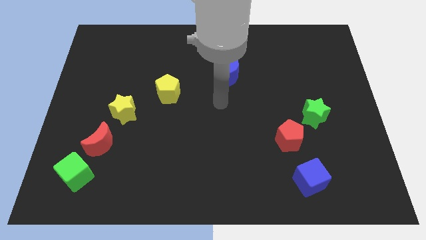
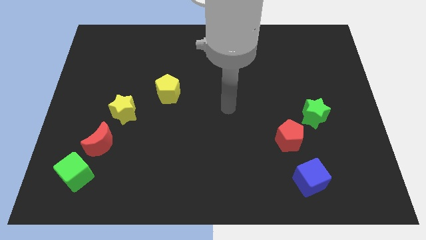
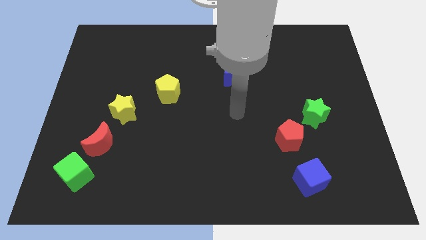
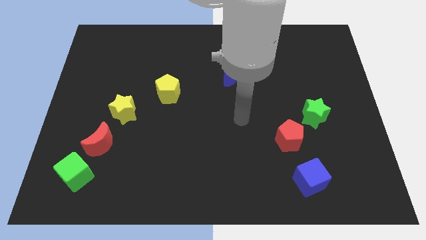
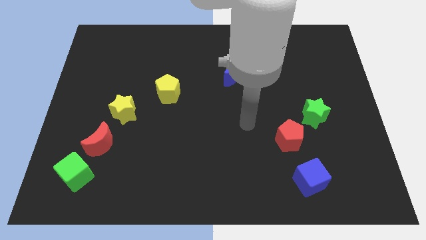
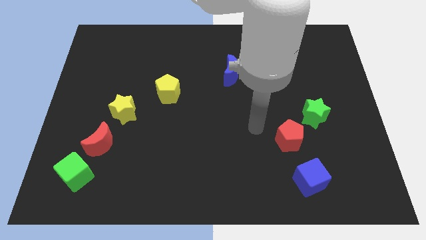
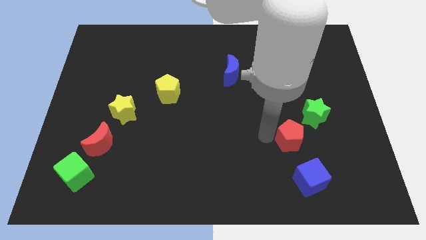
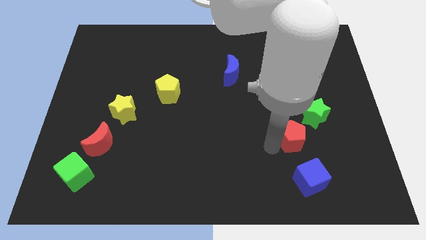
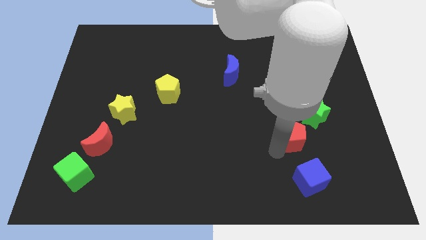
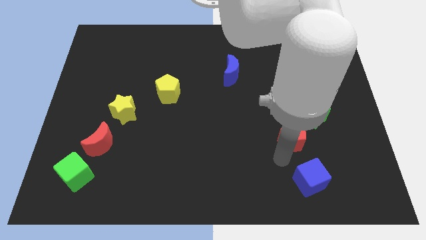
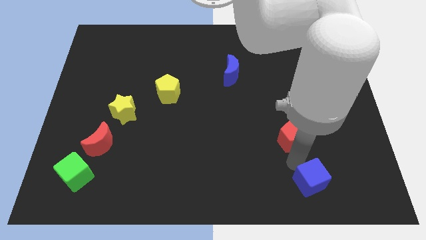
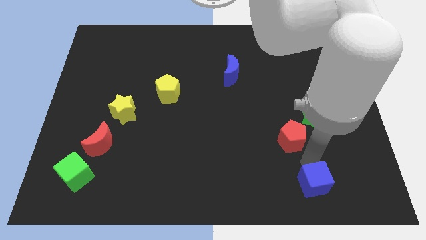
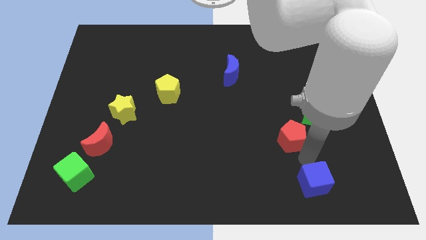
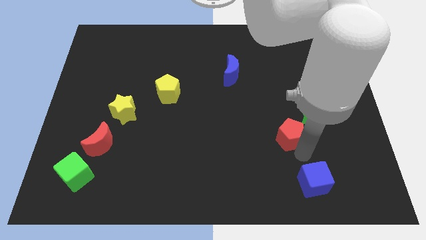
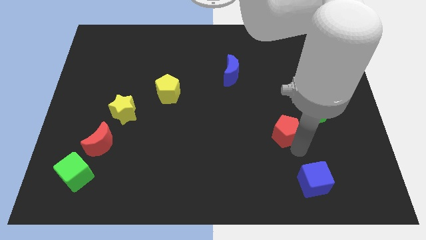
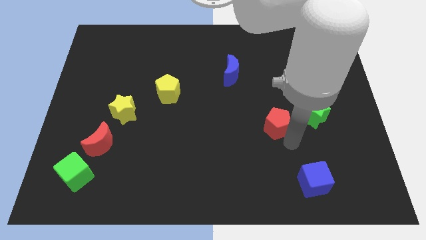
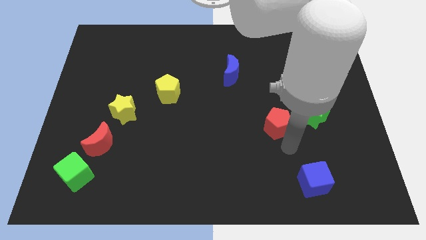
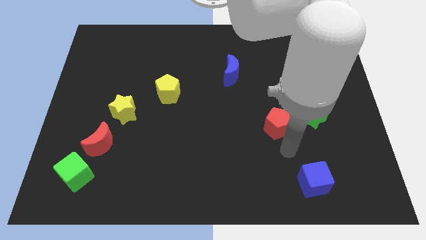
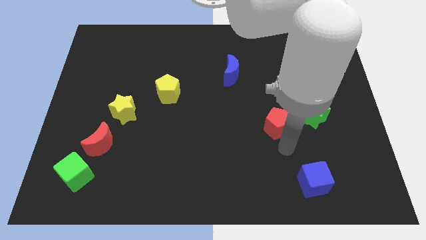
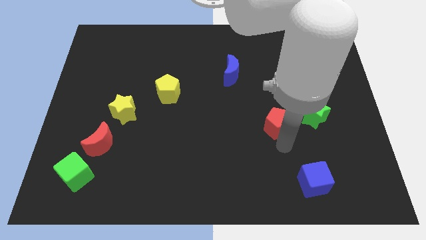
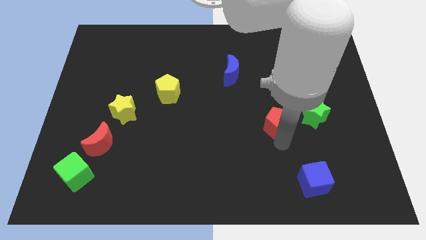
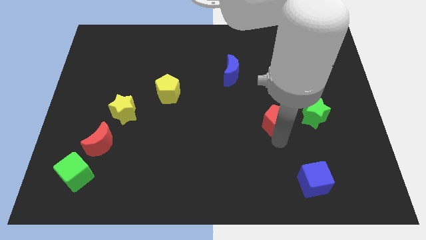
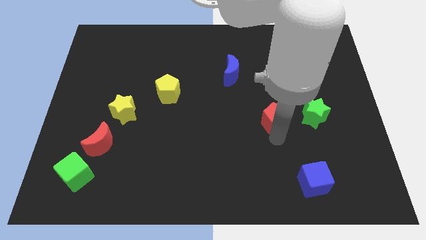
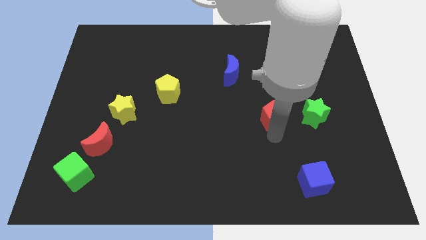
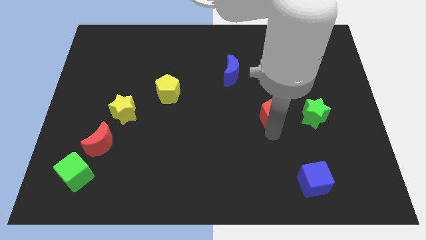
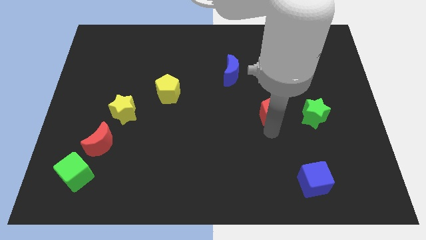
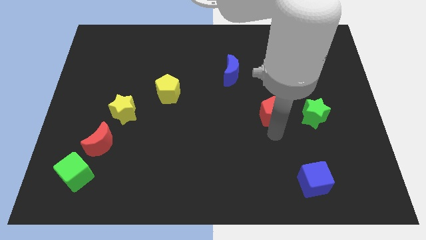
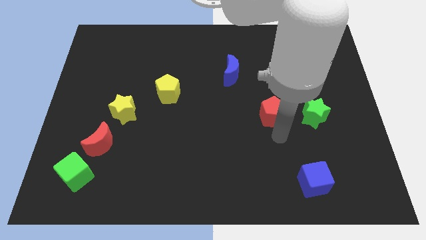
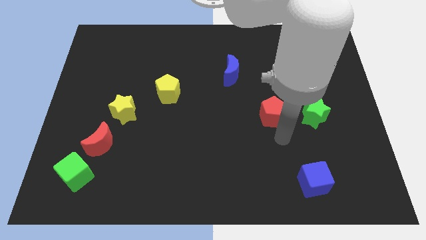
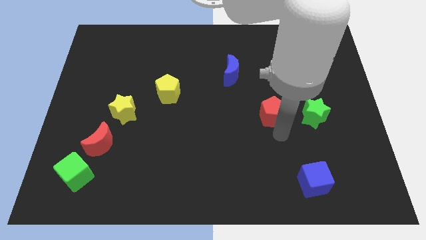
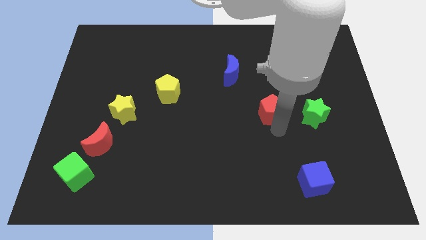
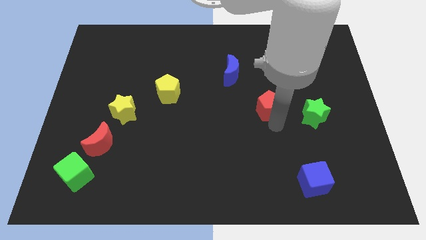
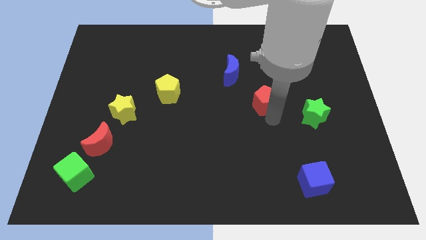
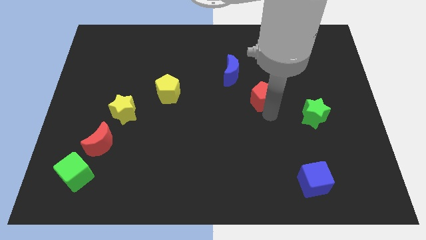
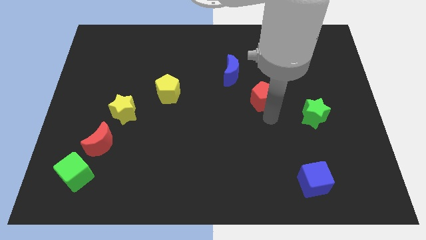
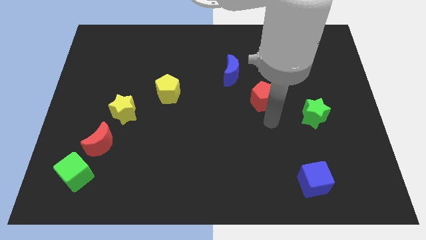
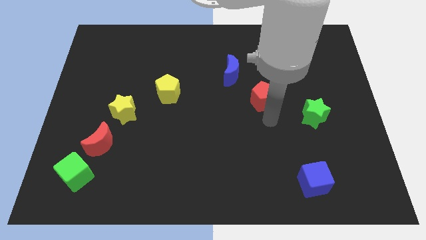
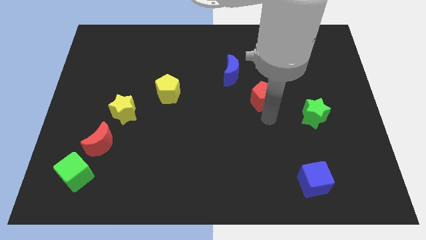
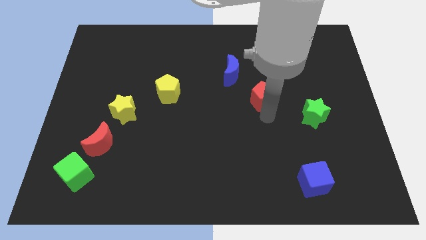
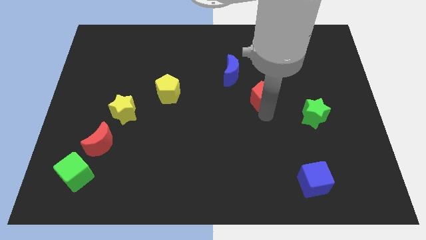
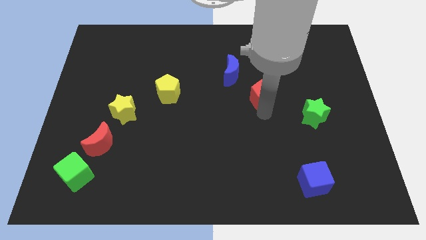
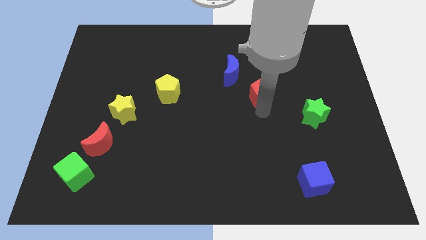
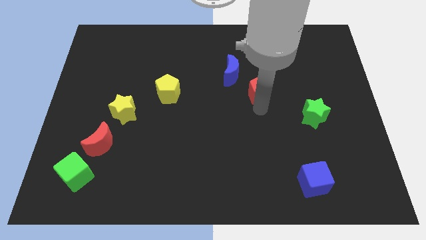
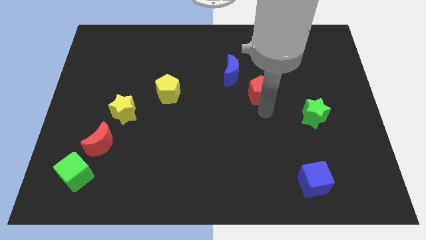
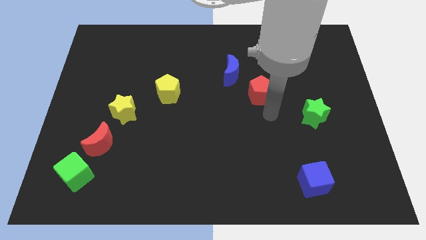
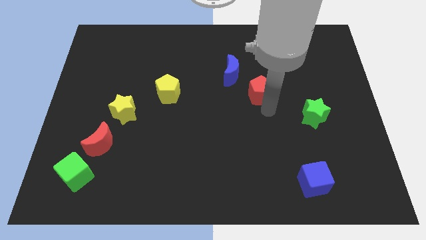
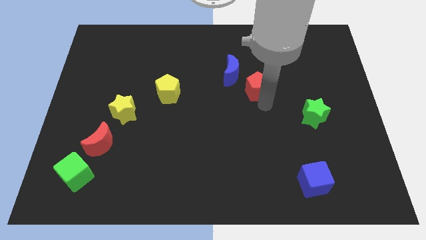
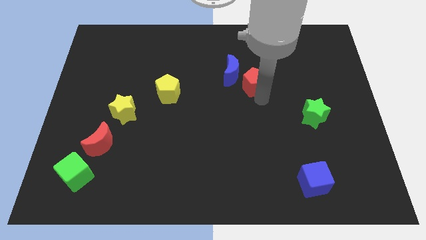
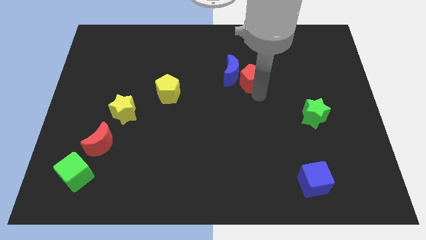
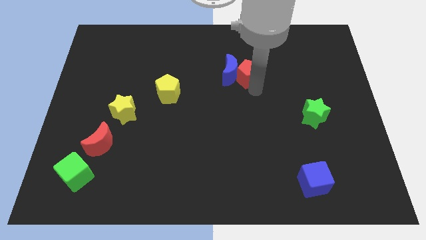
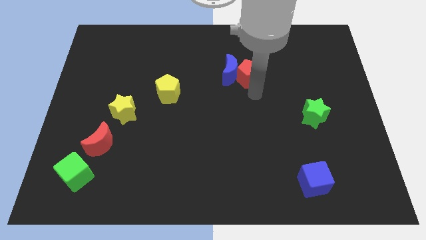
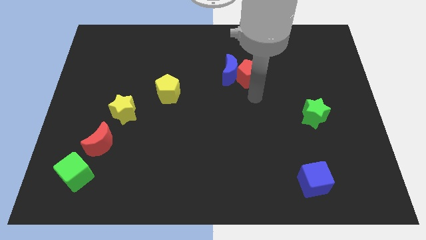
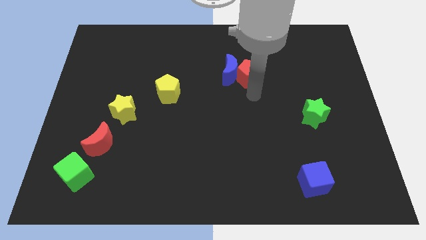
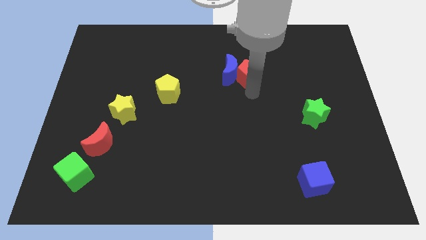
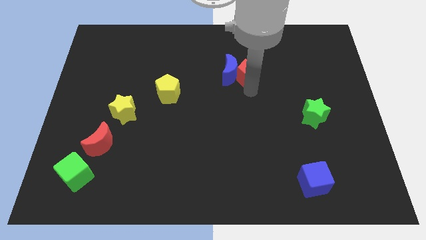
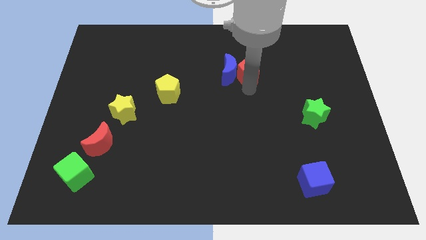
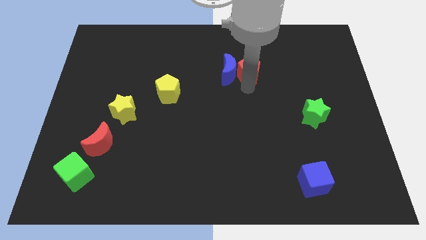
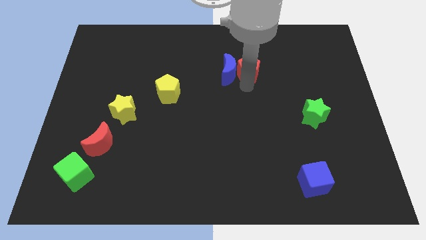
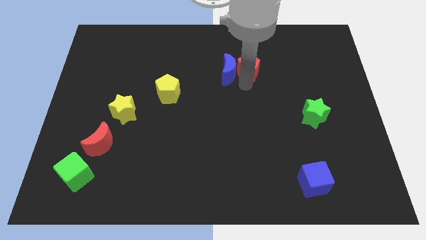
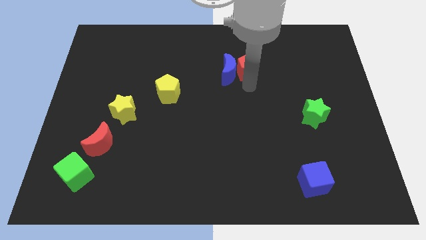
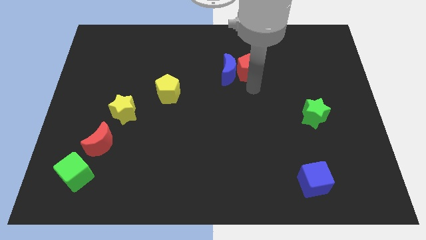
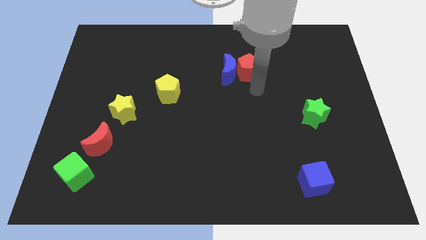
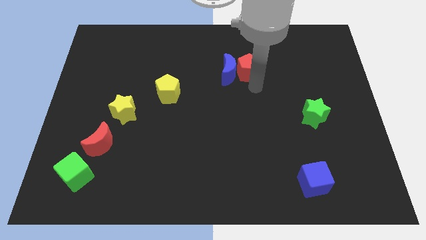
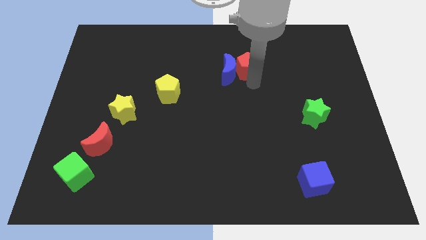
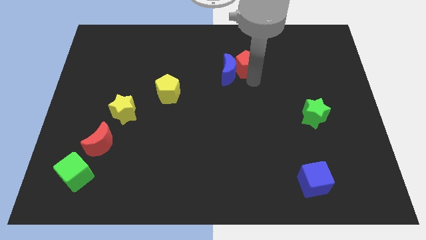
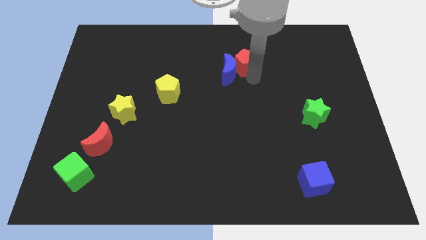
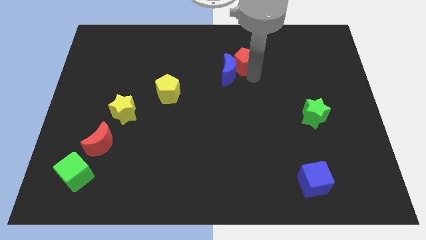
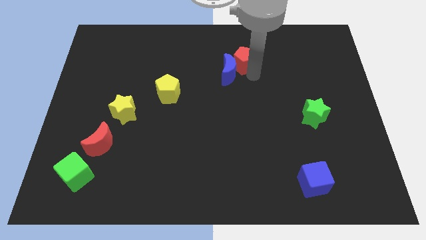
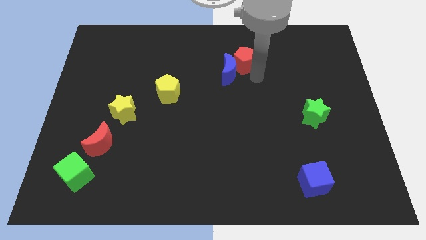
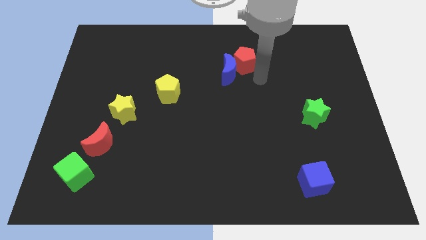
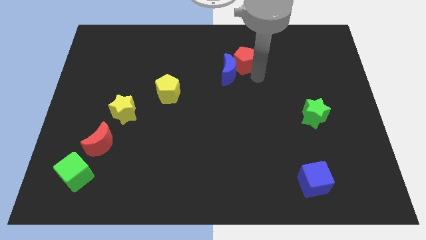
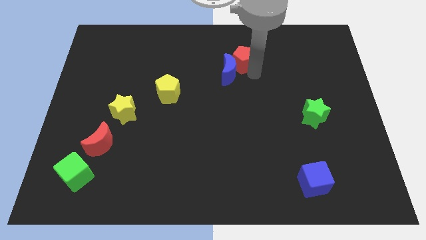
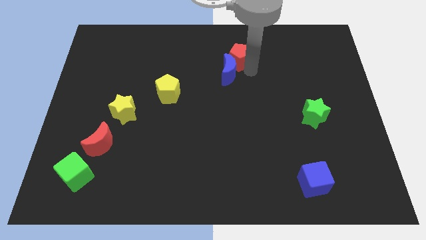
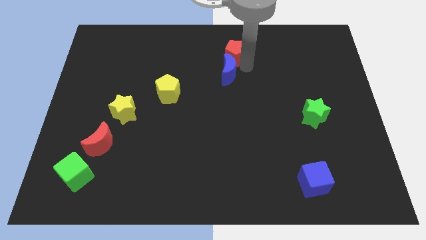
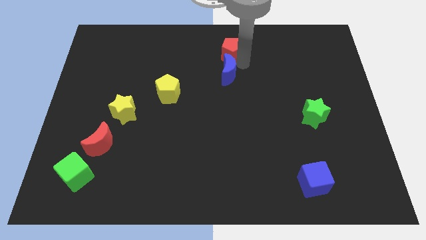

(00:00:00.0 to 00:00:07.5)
push the red pentagon to the top side
